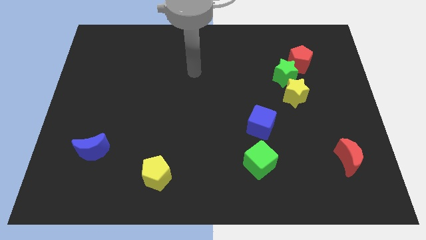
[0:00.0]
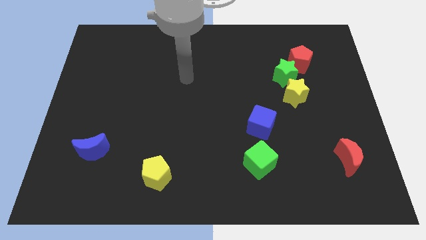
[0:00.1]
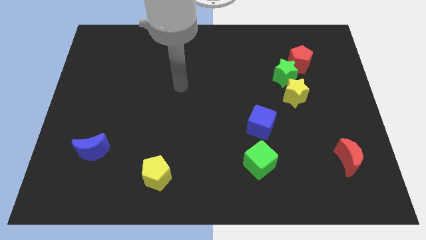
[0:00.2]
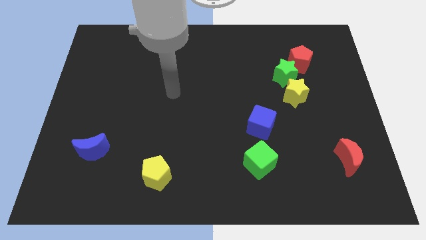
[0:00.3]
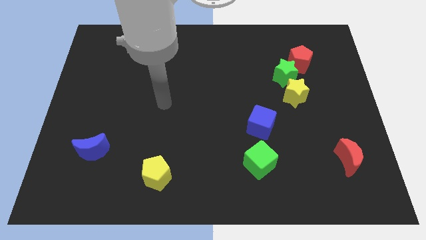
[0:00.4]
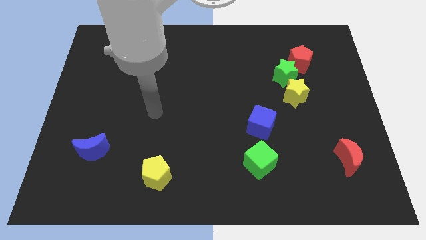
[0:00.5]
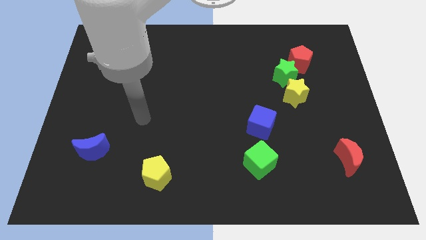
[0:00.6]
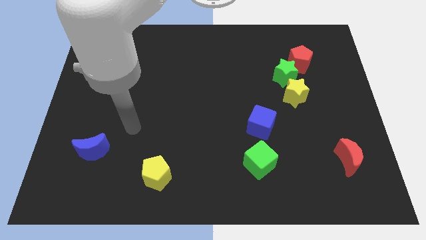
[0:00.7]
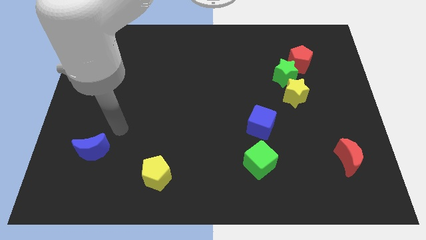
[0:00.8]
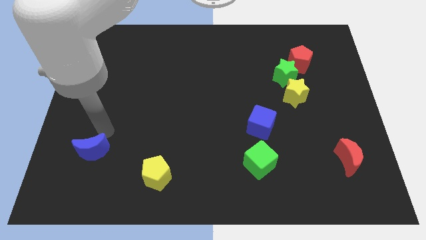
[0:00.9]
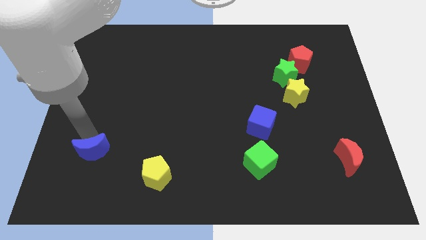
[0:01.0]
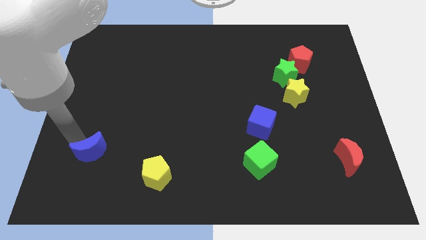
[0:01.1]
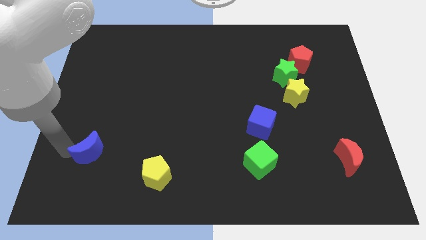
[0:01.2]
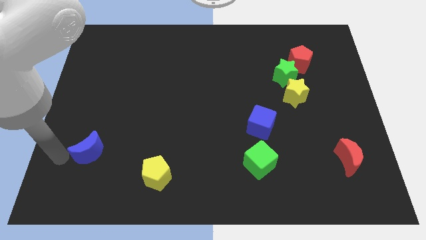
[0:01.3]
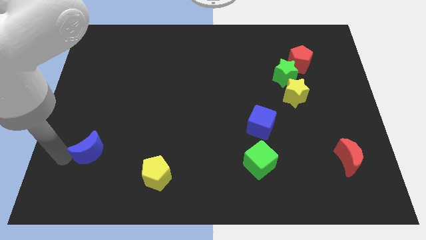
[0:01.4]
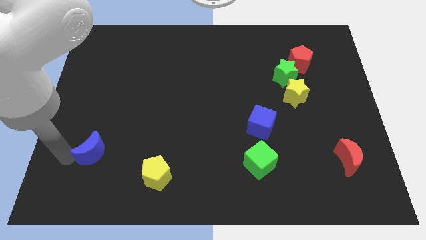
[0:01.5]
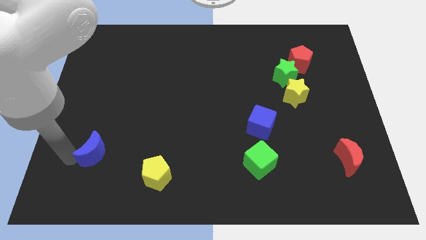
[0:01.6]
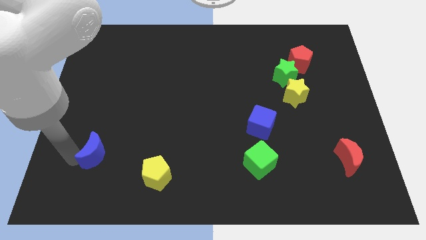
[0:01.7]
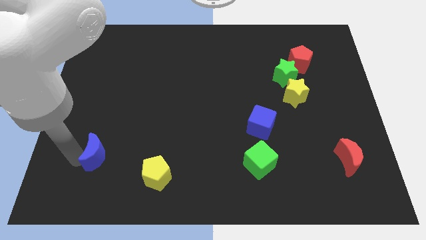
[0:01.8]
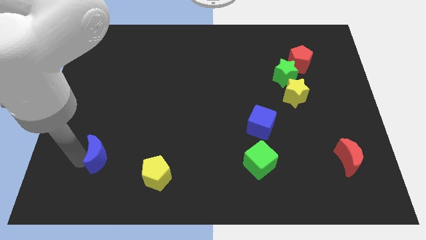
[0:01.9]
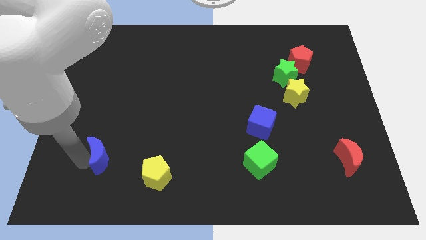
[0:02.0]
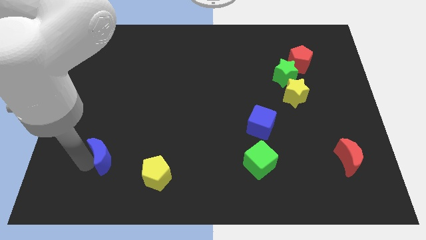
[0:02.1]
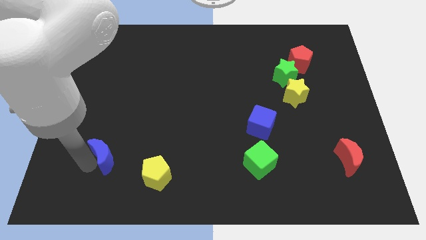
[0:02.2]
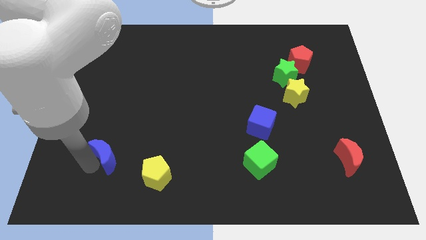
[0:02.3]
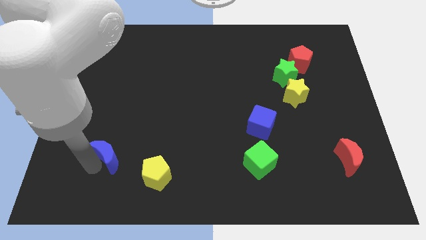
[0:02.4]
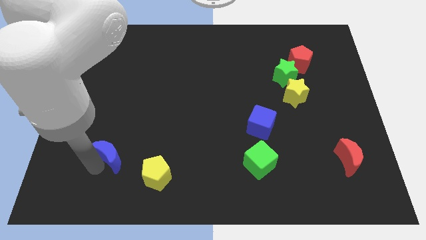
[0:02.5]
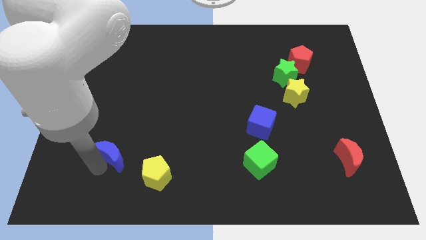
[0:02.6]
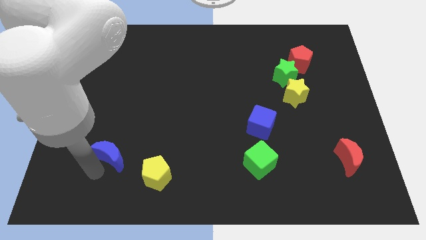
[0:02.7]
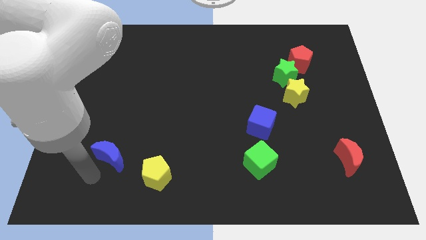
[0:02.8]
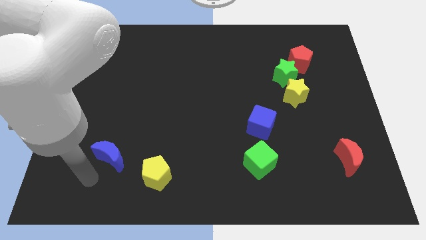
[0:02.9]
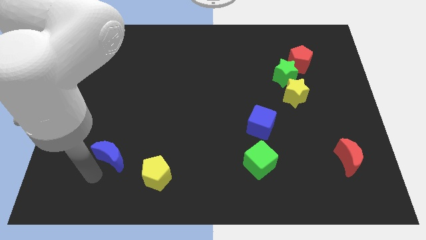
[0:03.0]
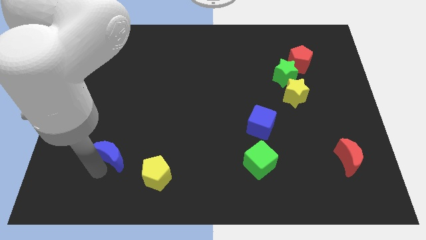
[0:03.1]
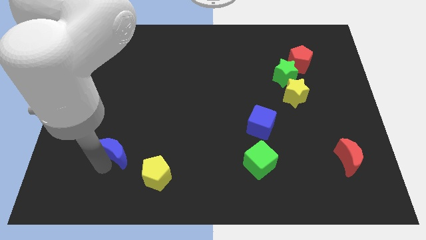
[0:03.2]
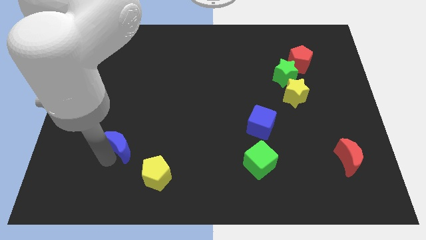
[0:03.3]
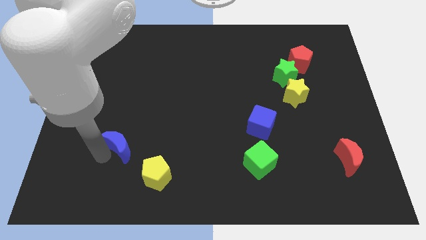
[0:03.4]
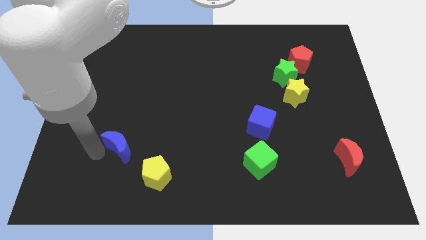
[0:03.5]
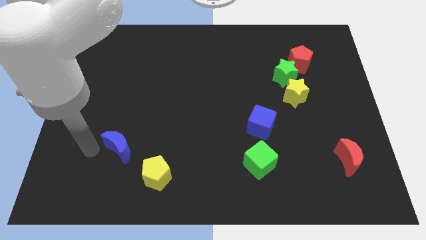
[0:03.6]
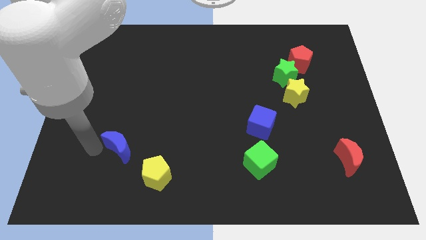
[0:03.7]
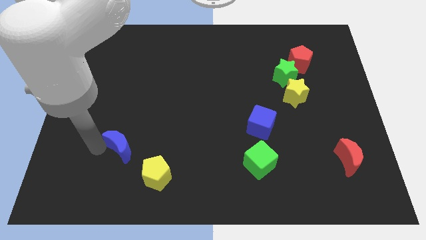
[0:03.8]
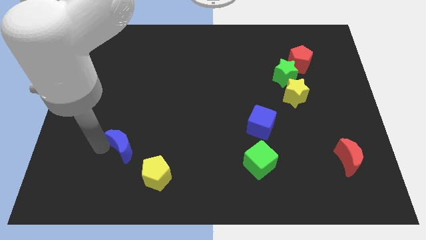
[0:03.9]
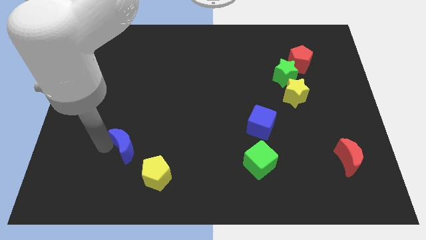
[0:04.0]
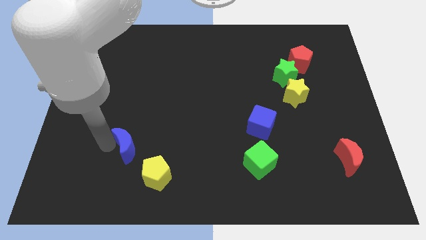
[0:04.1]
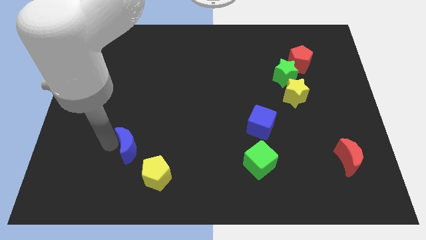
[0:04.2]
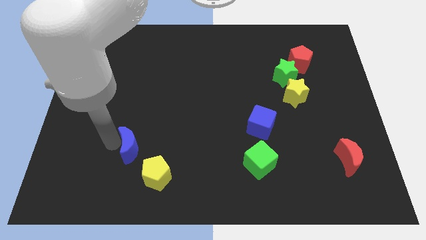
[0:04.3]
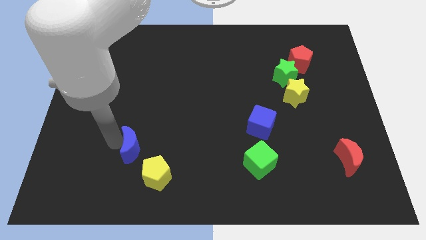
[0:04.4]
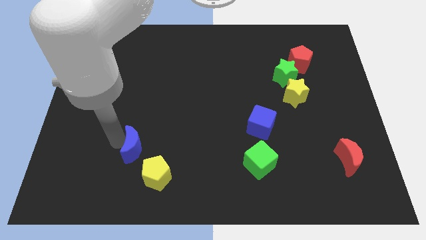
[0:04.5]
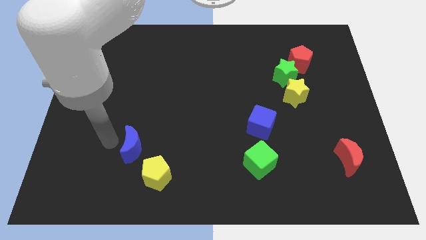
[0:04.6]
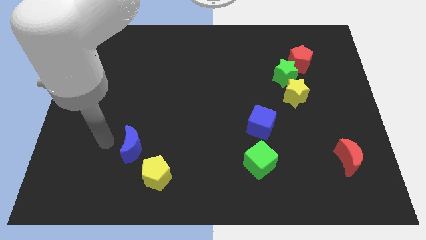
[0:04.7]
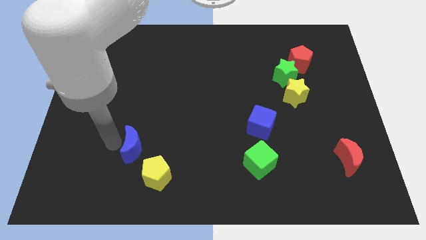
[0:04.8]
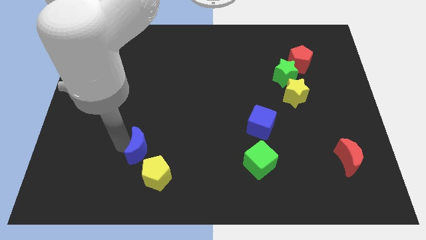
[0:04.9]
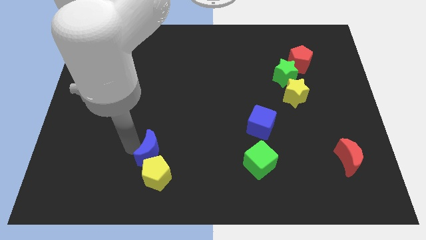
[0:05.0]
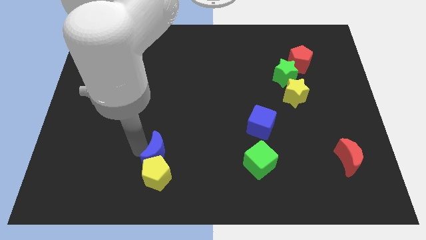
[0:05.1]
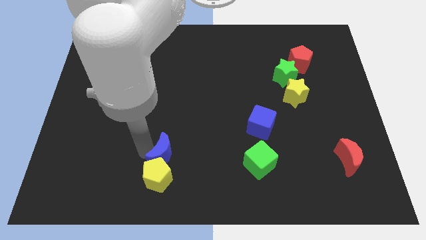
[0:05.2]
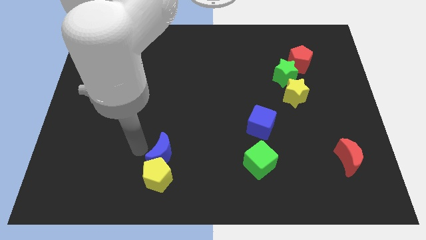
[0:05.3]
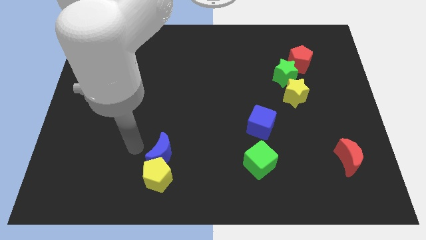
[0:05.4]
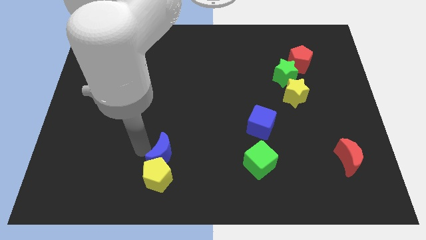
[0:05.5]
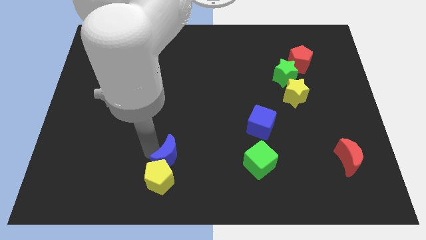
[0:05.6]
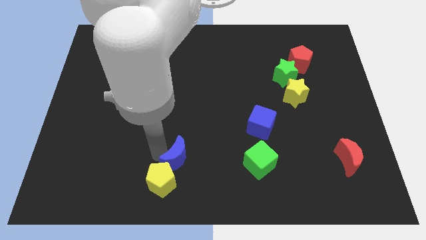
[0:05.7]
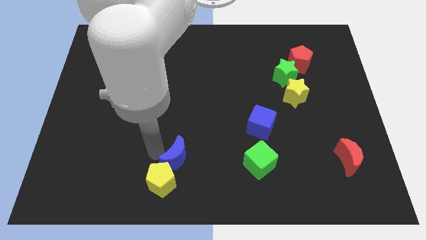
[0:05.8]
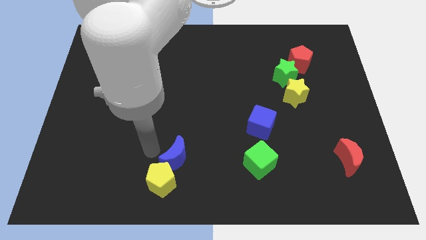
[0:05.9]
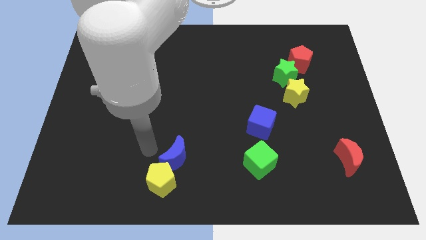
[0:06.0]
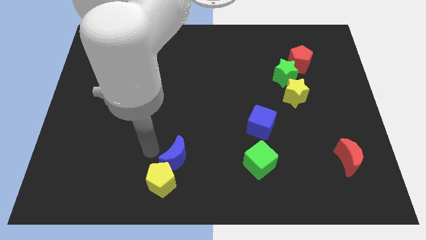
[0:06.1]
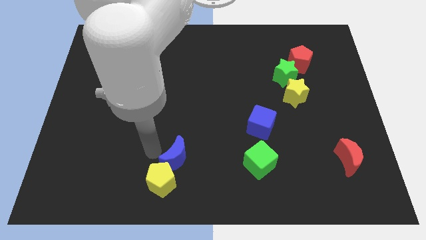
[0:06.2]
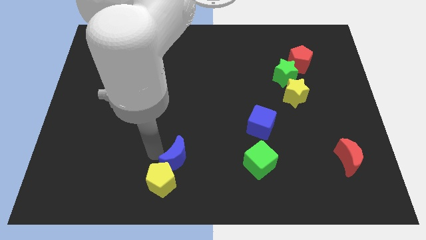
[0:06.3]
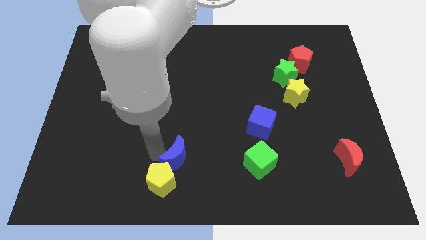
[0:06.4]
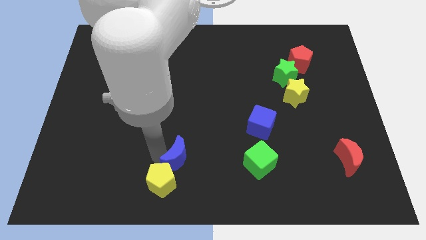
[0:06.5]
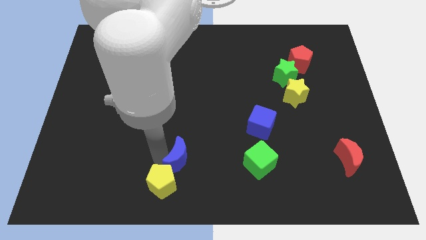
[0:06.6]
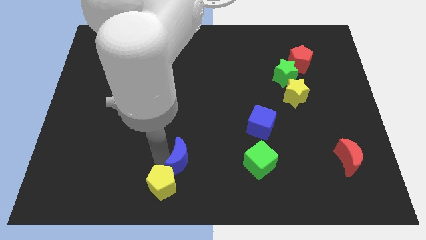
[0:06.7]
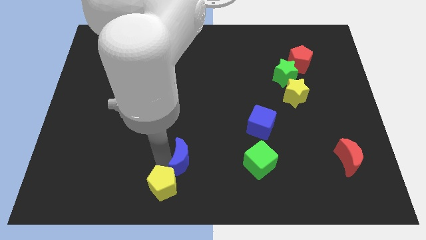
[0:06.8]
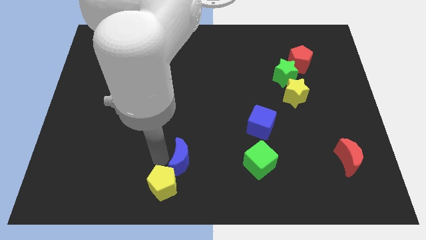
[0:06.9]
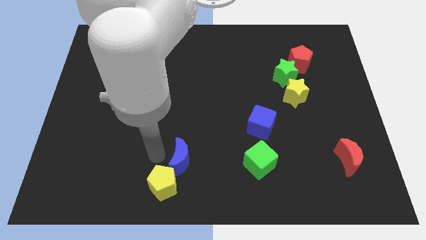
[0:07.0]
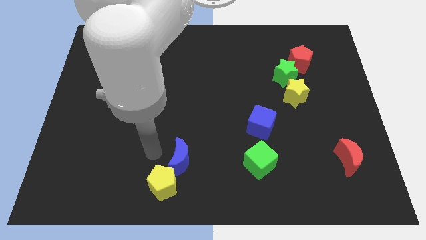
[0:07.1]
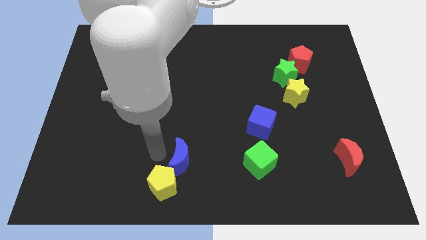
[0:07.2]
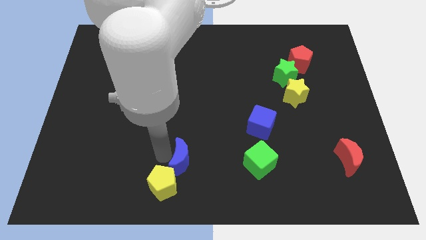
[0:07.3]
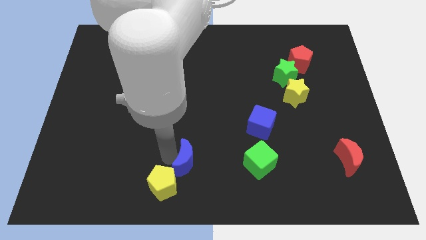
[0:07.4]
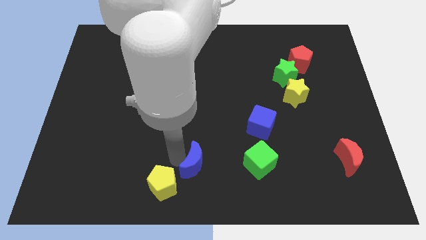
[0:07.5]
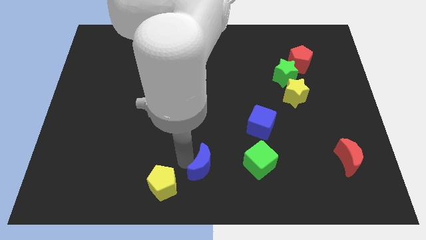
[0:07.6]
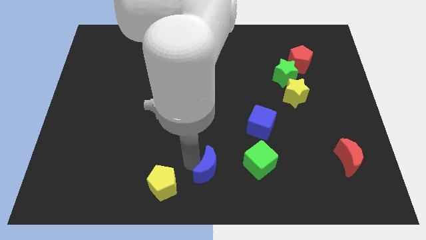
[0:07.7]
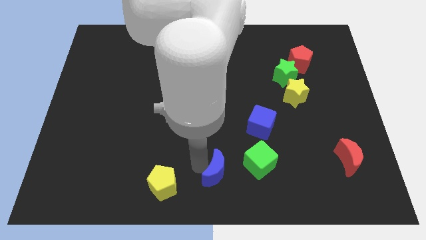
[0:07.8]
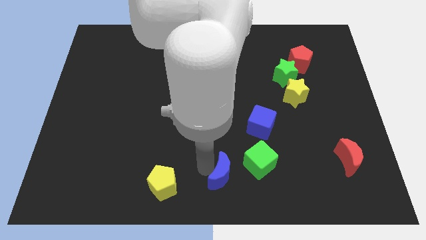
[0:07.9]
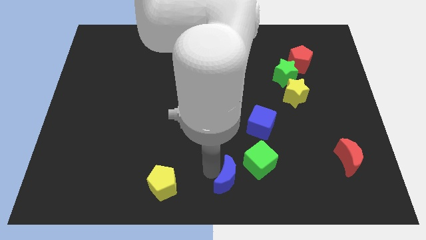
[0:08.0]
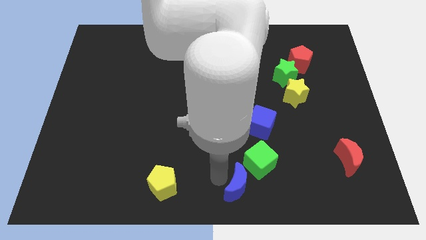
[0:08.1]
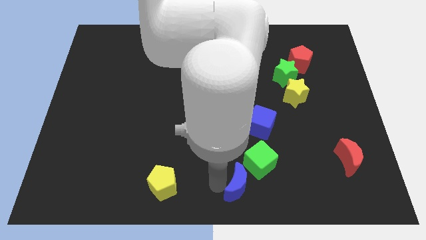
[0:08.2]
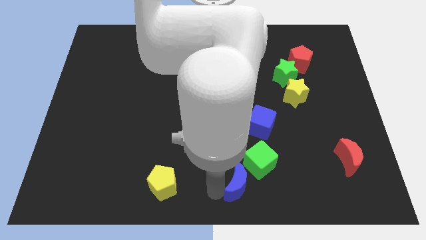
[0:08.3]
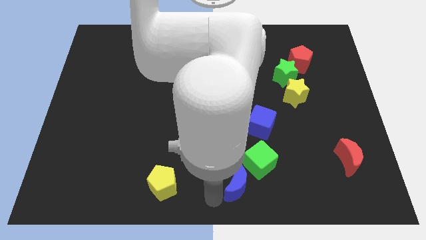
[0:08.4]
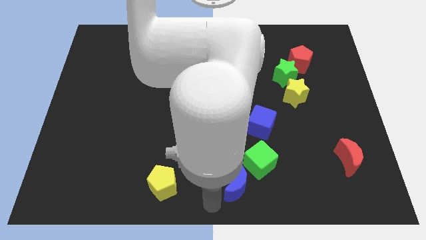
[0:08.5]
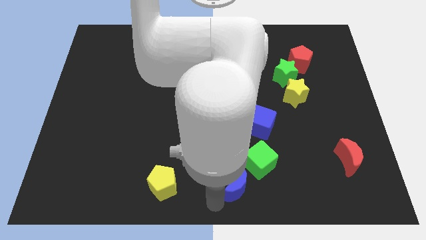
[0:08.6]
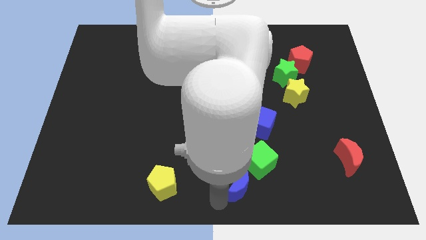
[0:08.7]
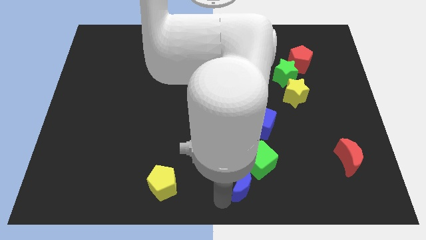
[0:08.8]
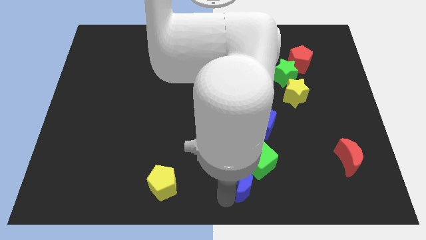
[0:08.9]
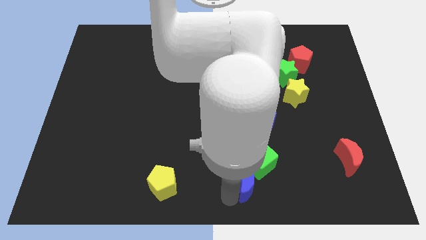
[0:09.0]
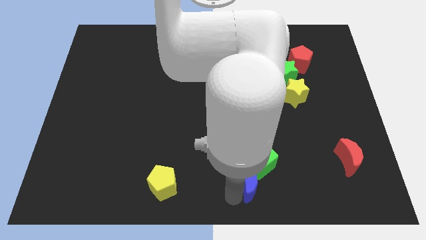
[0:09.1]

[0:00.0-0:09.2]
push the blue moon to the bottom side of the blue cube
